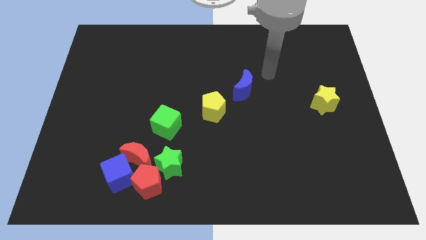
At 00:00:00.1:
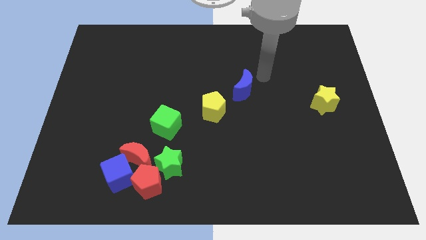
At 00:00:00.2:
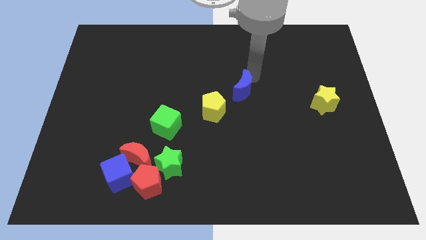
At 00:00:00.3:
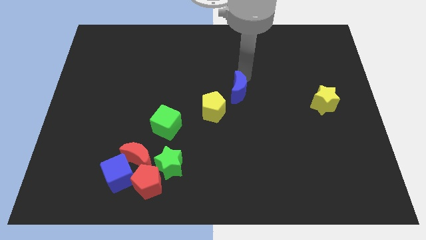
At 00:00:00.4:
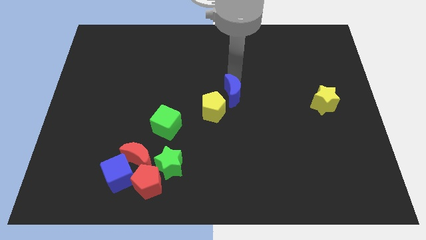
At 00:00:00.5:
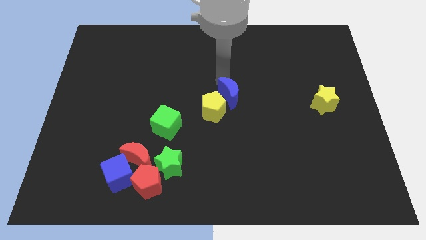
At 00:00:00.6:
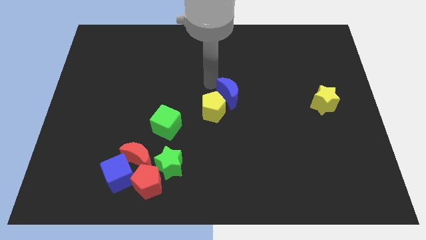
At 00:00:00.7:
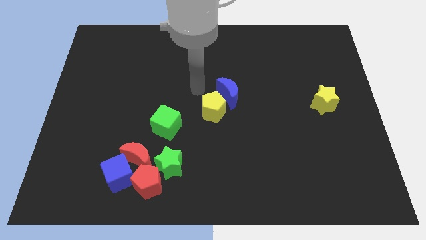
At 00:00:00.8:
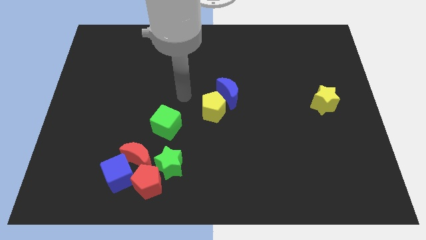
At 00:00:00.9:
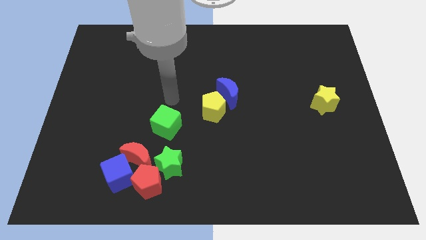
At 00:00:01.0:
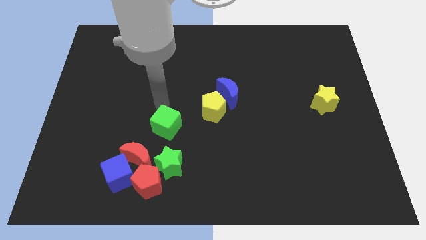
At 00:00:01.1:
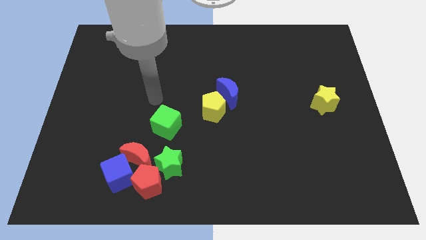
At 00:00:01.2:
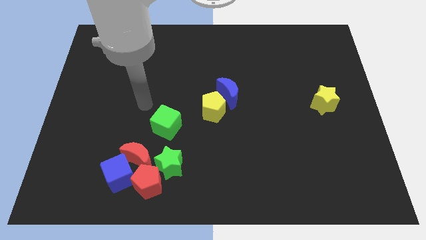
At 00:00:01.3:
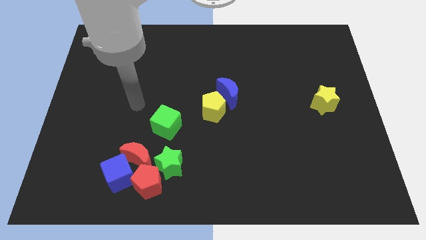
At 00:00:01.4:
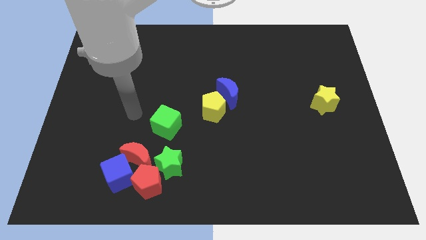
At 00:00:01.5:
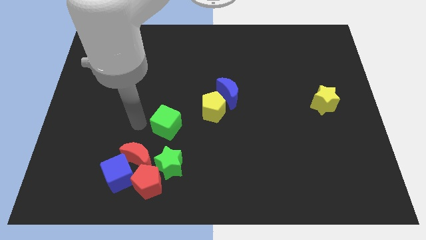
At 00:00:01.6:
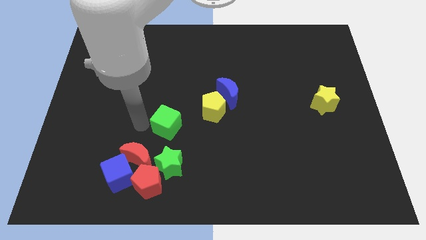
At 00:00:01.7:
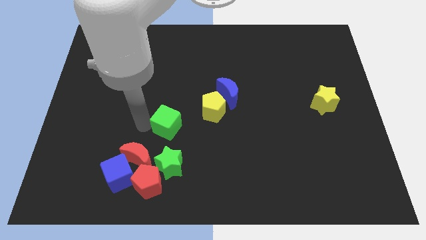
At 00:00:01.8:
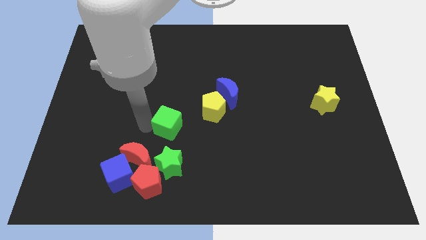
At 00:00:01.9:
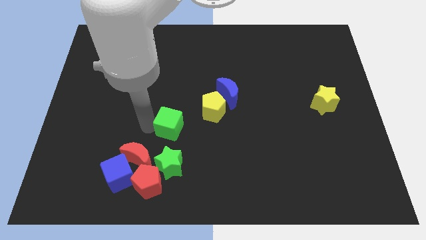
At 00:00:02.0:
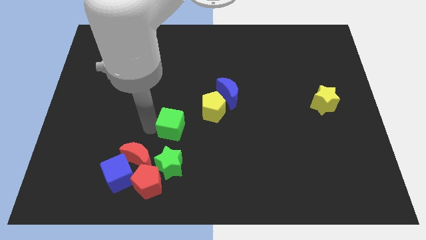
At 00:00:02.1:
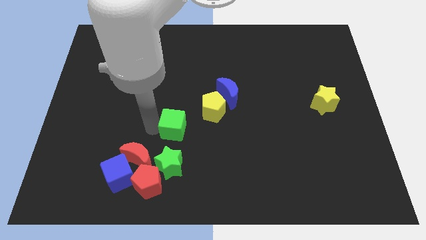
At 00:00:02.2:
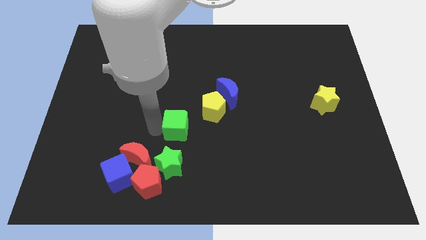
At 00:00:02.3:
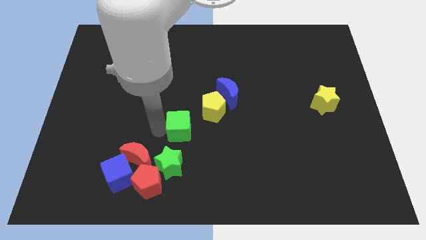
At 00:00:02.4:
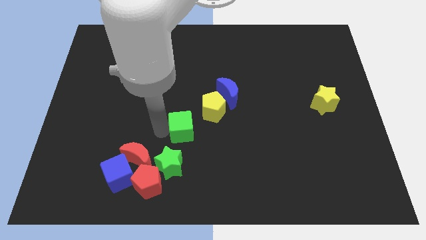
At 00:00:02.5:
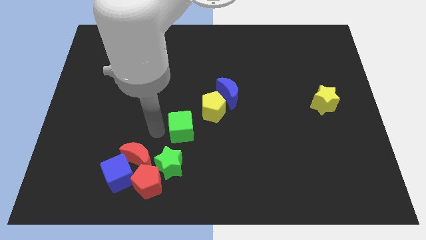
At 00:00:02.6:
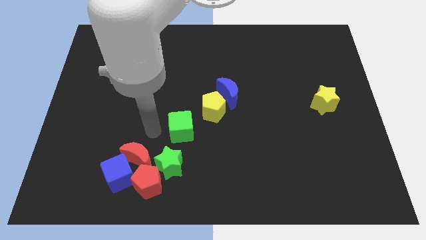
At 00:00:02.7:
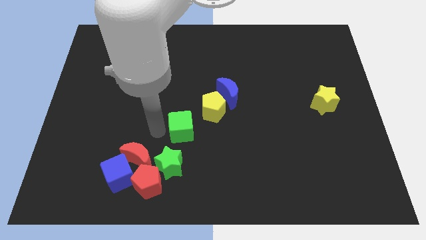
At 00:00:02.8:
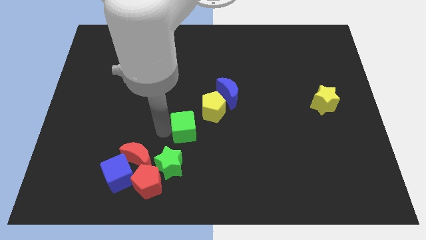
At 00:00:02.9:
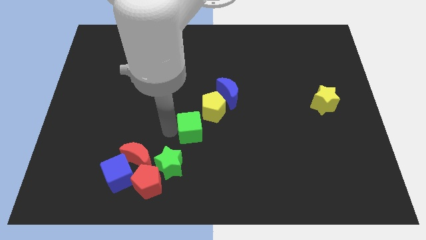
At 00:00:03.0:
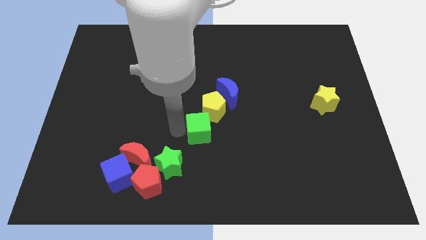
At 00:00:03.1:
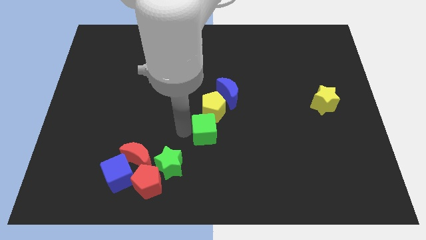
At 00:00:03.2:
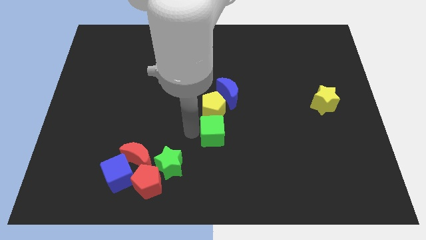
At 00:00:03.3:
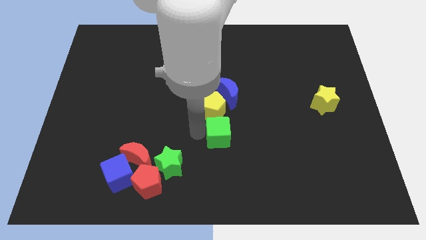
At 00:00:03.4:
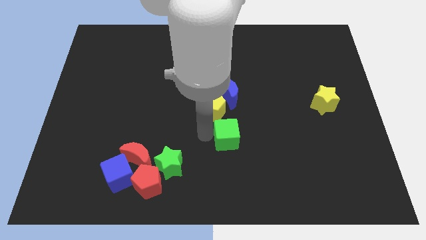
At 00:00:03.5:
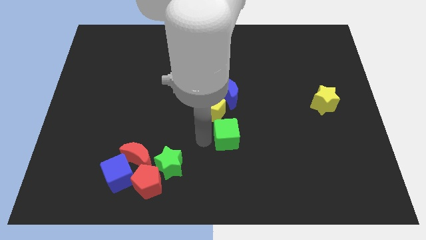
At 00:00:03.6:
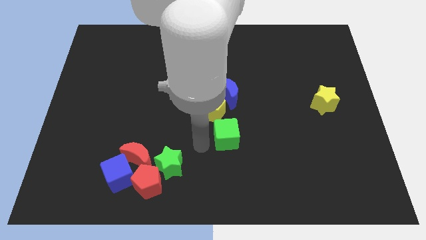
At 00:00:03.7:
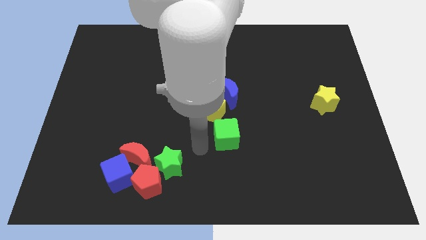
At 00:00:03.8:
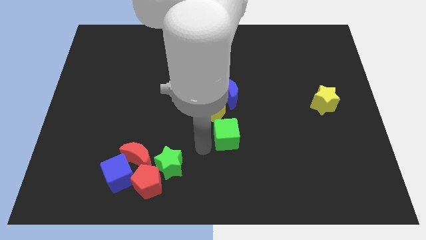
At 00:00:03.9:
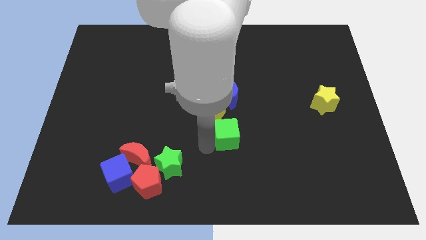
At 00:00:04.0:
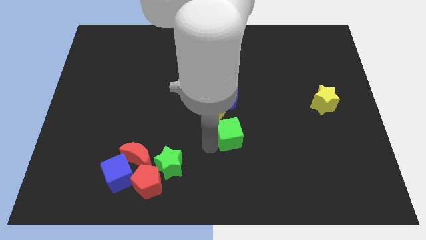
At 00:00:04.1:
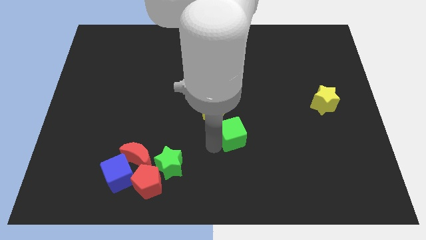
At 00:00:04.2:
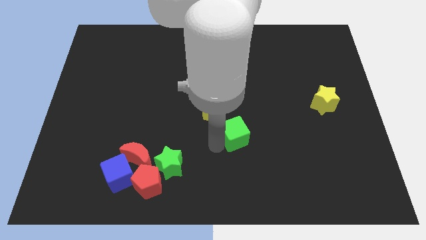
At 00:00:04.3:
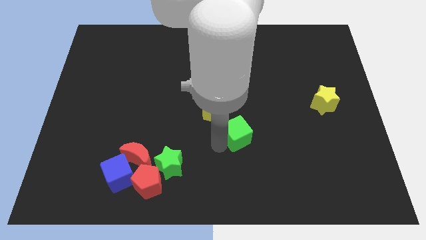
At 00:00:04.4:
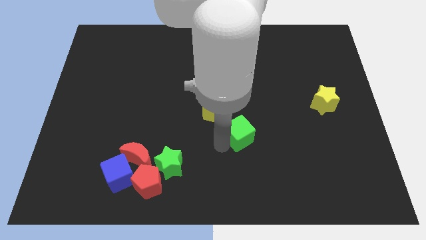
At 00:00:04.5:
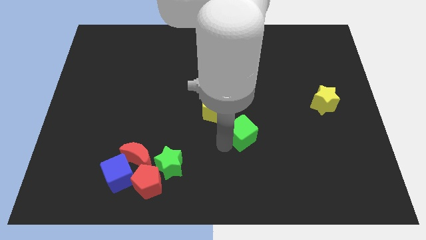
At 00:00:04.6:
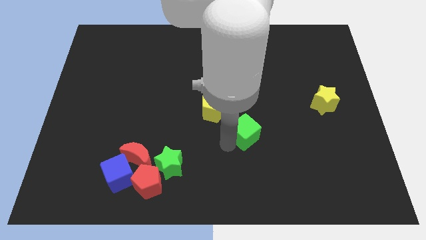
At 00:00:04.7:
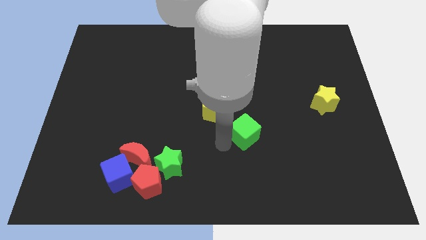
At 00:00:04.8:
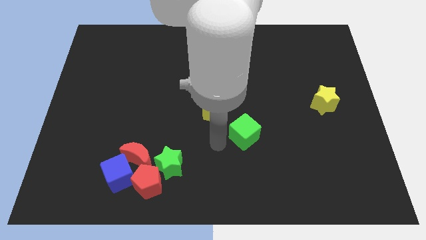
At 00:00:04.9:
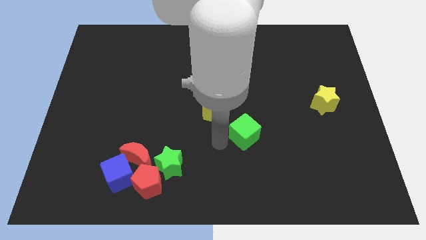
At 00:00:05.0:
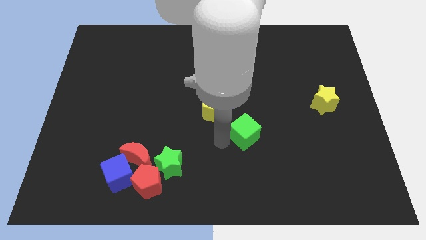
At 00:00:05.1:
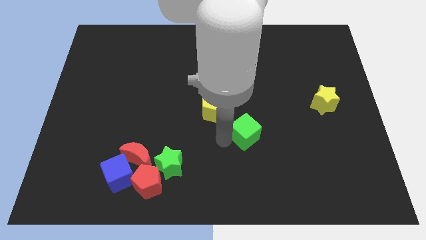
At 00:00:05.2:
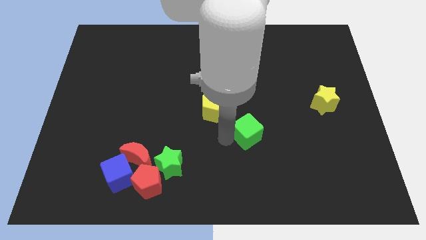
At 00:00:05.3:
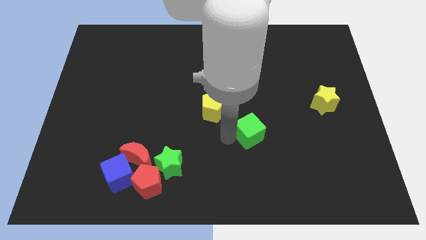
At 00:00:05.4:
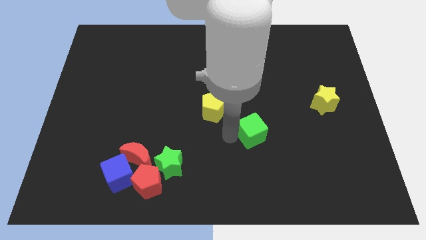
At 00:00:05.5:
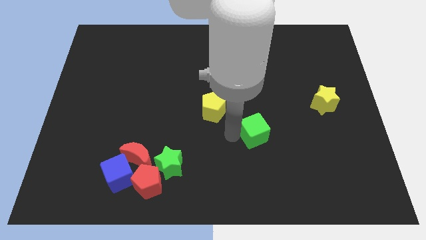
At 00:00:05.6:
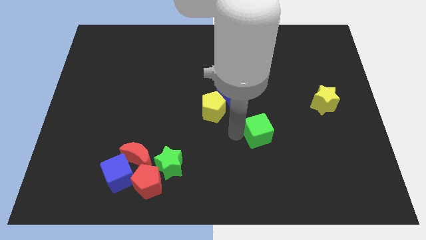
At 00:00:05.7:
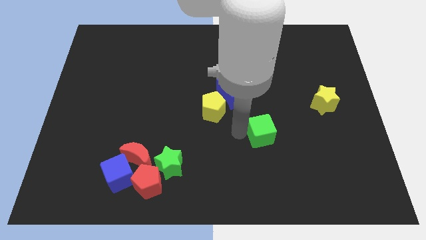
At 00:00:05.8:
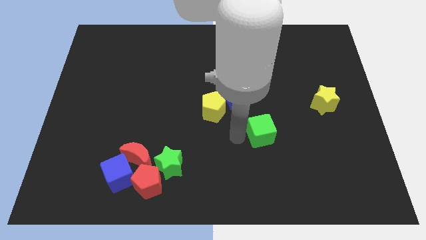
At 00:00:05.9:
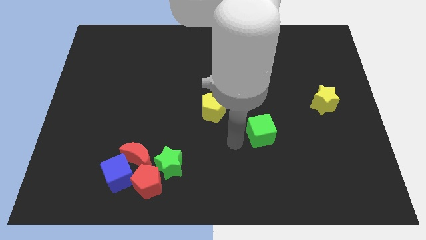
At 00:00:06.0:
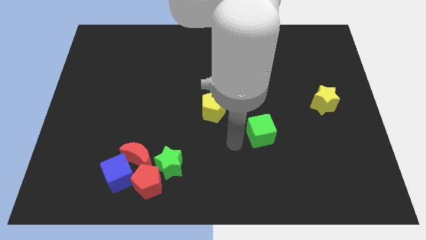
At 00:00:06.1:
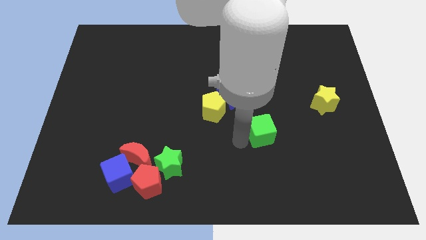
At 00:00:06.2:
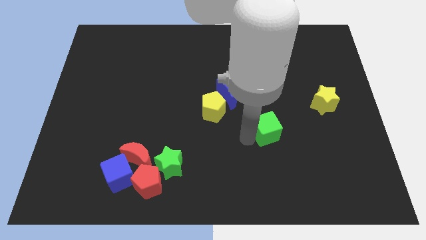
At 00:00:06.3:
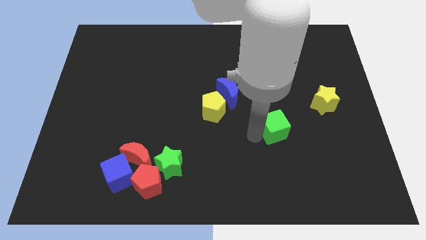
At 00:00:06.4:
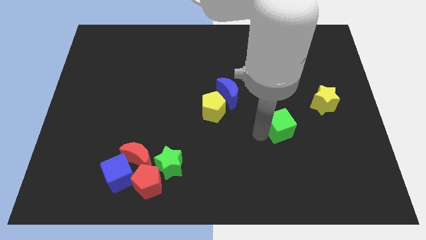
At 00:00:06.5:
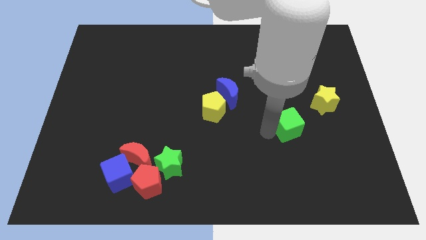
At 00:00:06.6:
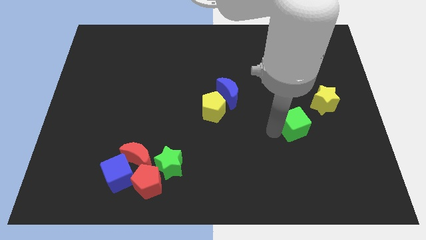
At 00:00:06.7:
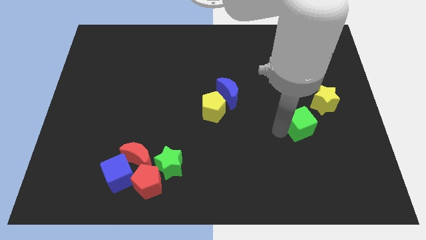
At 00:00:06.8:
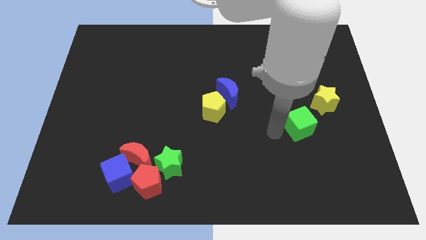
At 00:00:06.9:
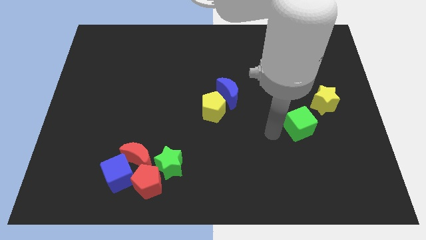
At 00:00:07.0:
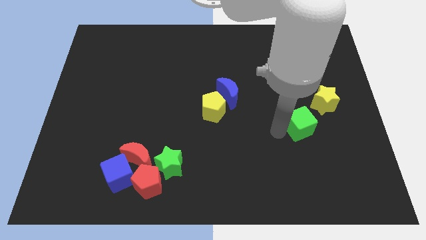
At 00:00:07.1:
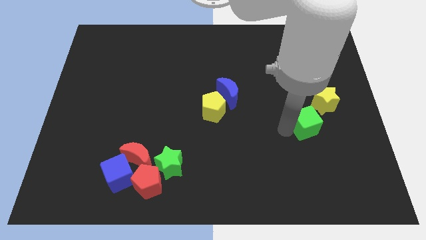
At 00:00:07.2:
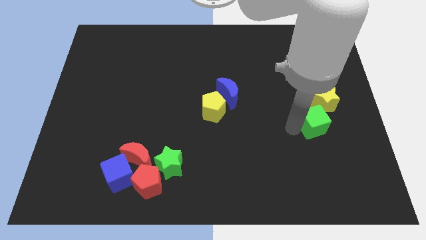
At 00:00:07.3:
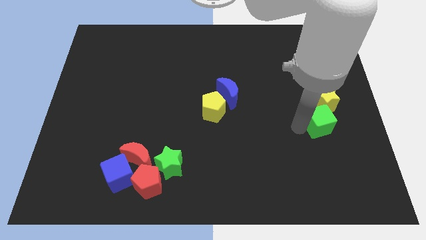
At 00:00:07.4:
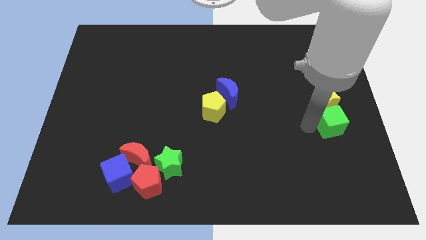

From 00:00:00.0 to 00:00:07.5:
put the green cube to the right side
